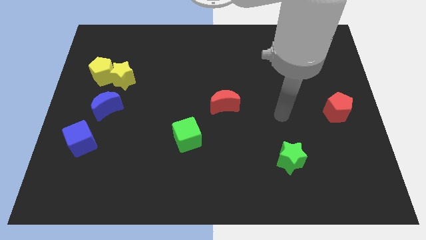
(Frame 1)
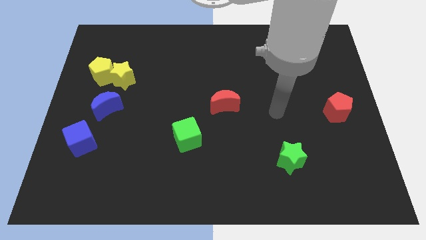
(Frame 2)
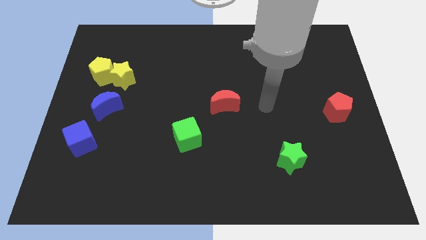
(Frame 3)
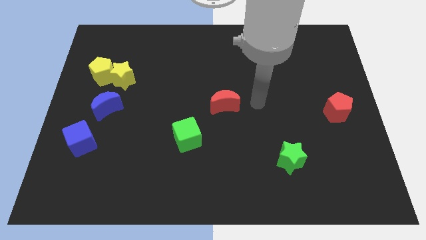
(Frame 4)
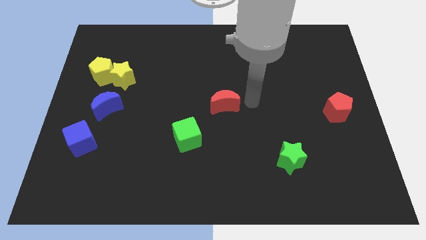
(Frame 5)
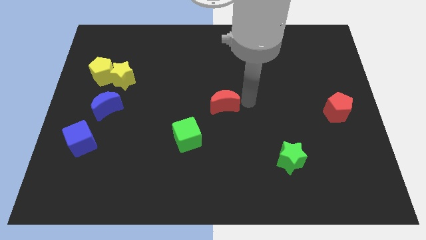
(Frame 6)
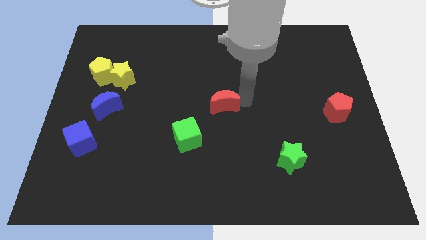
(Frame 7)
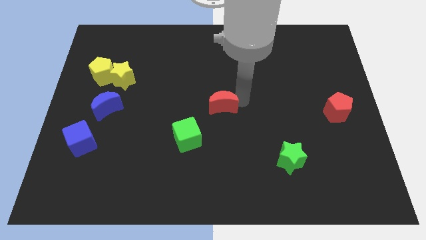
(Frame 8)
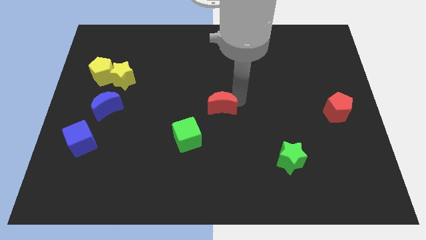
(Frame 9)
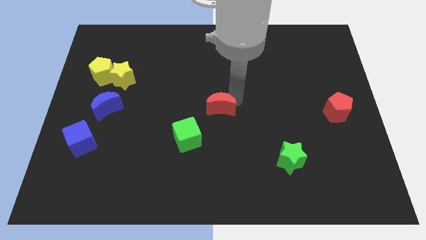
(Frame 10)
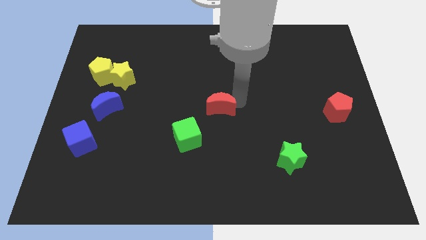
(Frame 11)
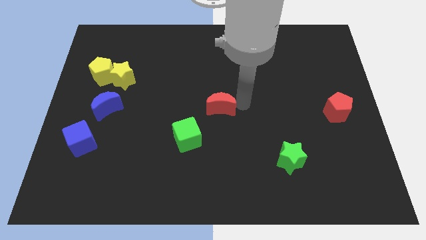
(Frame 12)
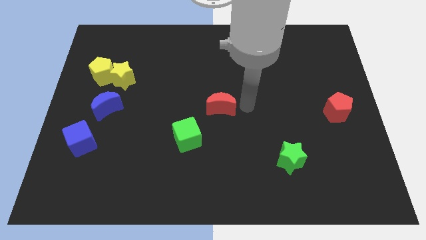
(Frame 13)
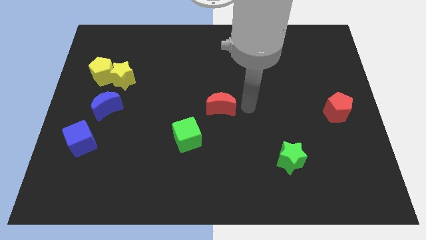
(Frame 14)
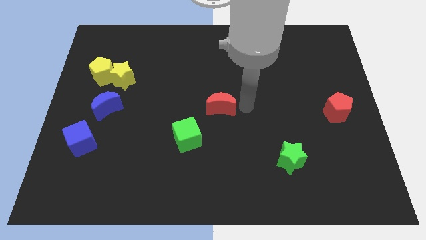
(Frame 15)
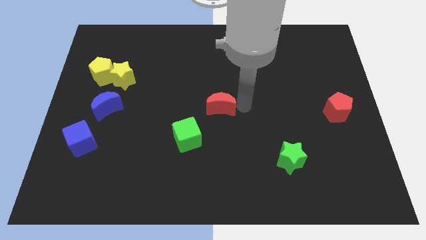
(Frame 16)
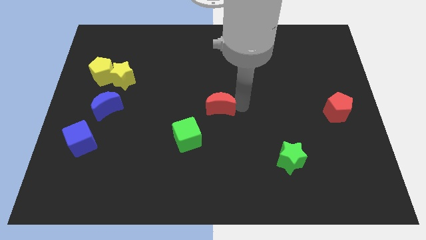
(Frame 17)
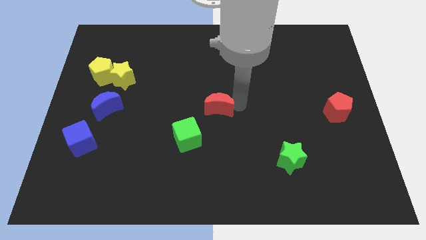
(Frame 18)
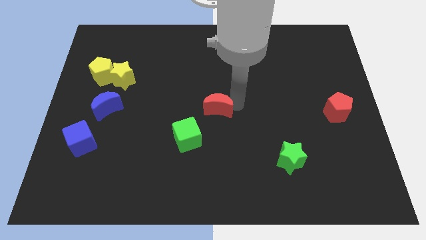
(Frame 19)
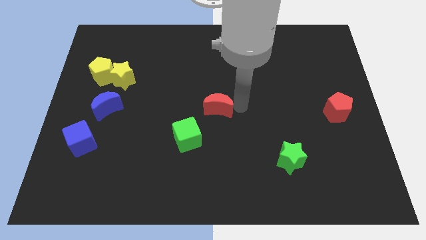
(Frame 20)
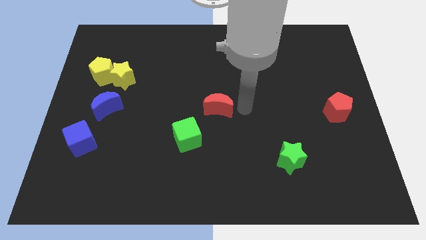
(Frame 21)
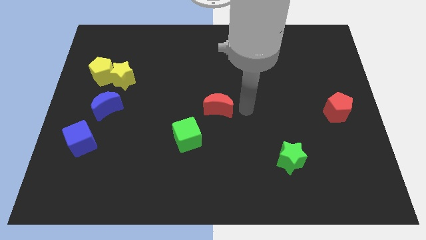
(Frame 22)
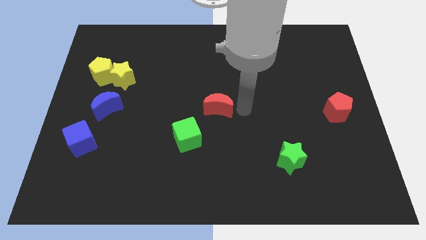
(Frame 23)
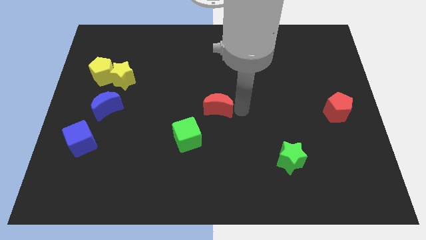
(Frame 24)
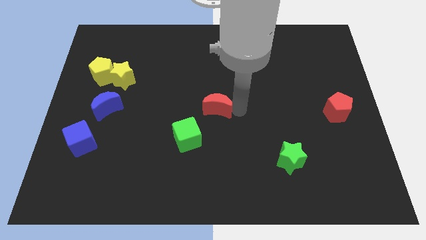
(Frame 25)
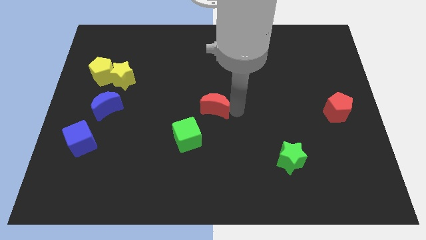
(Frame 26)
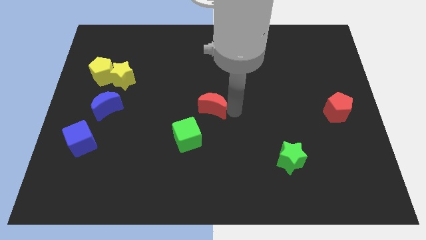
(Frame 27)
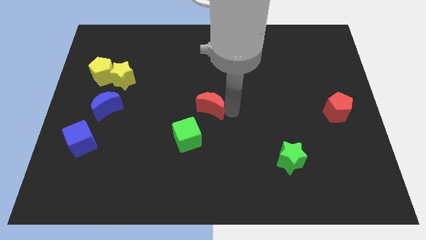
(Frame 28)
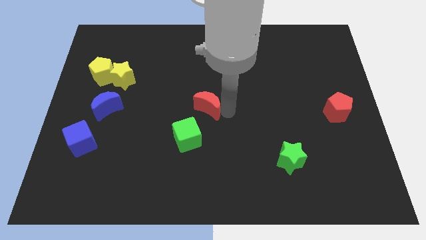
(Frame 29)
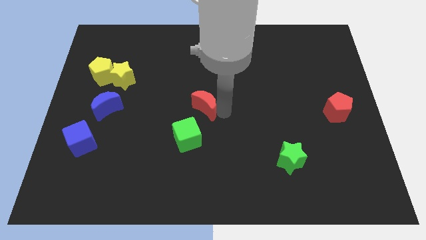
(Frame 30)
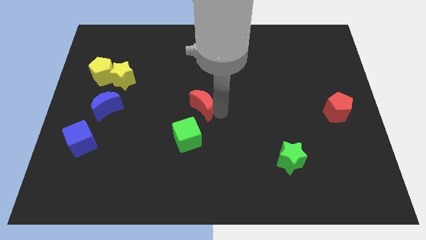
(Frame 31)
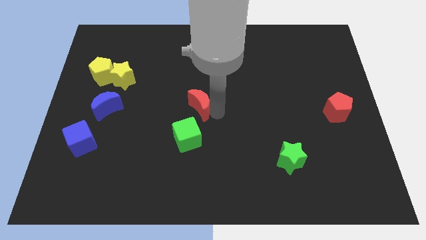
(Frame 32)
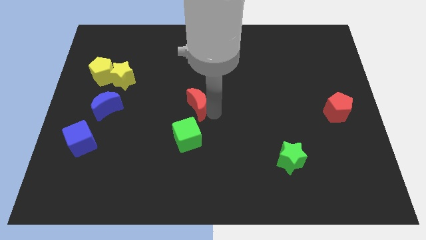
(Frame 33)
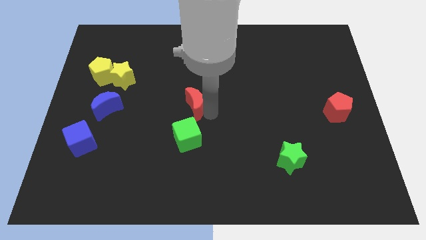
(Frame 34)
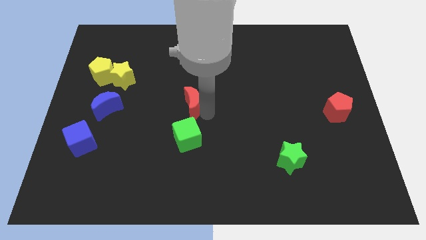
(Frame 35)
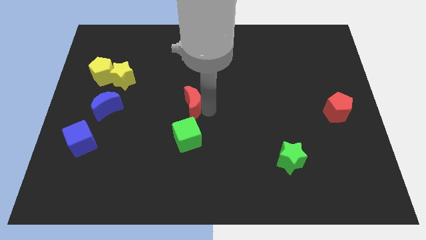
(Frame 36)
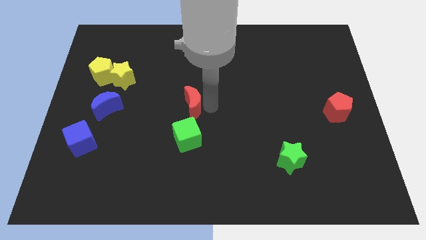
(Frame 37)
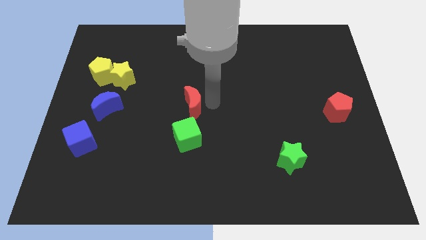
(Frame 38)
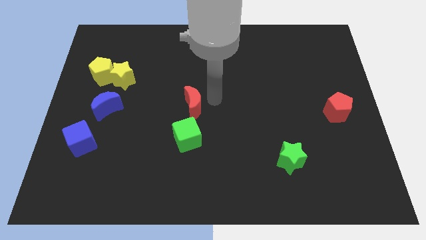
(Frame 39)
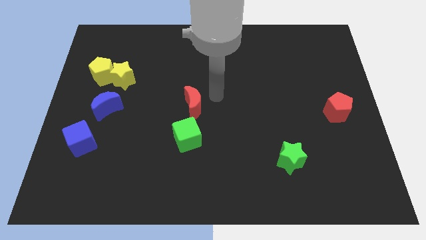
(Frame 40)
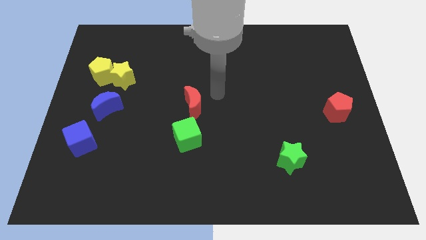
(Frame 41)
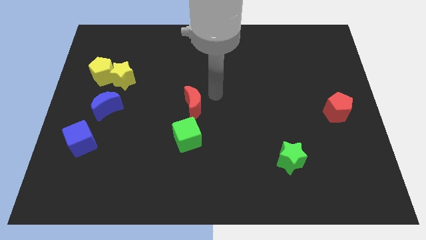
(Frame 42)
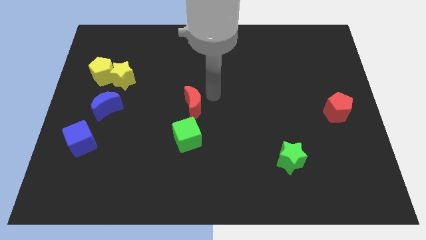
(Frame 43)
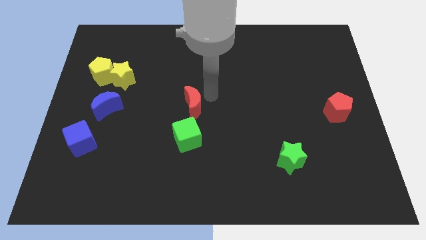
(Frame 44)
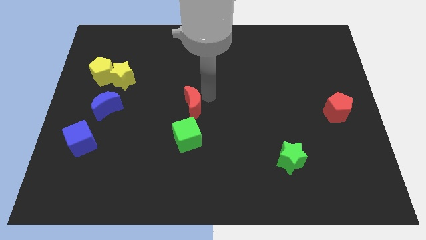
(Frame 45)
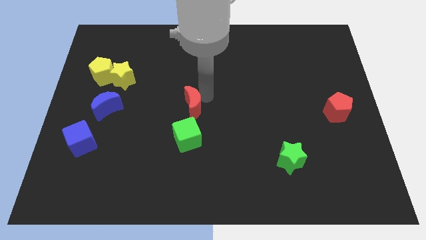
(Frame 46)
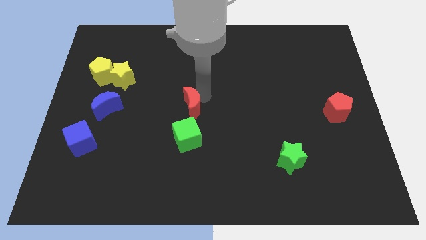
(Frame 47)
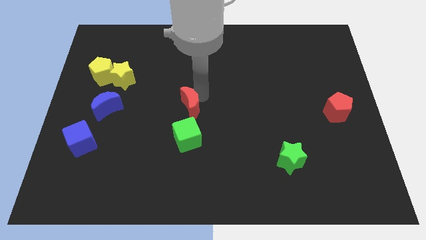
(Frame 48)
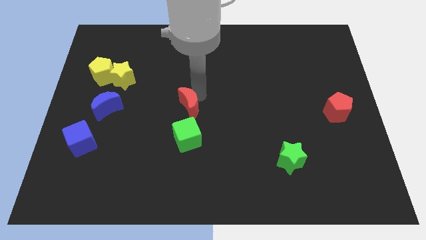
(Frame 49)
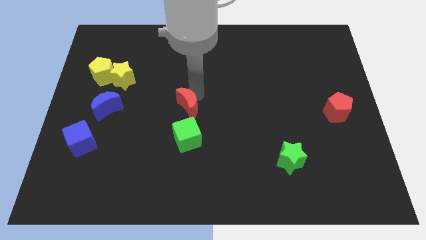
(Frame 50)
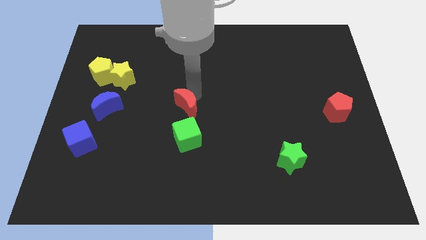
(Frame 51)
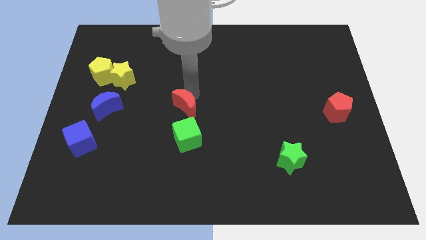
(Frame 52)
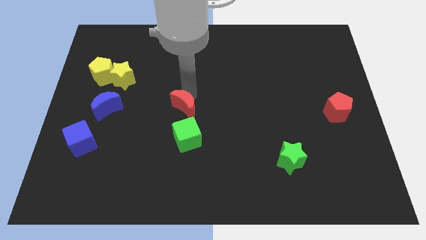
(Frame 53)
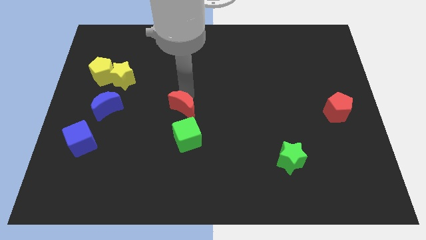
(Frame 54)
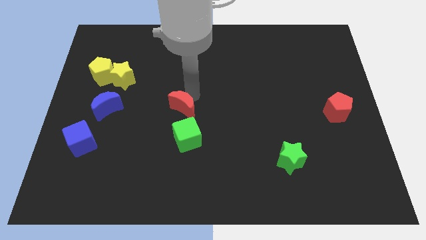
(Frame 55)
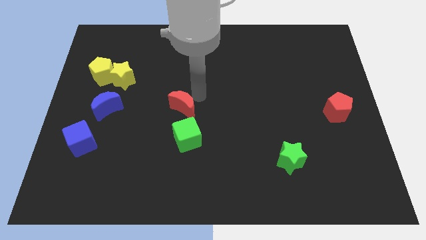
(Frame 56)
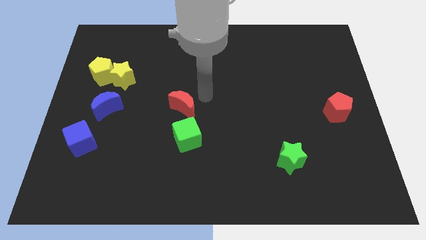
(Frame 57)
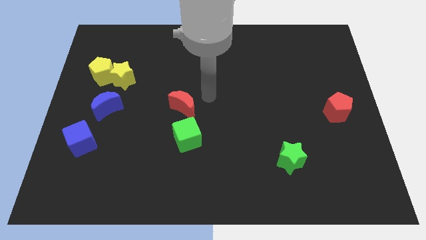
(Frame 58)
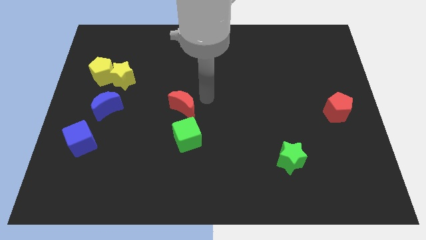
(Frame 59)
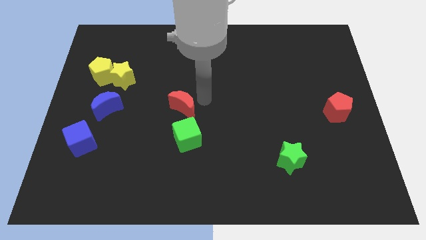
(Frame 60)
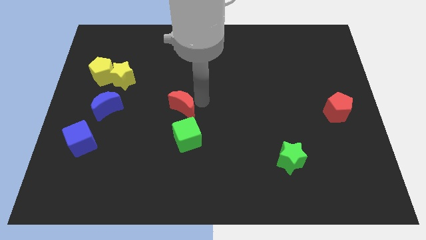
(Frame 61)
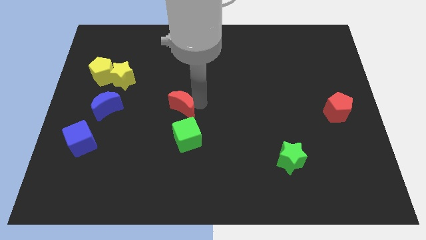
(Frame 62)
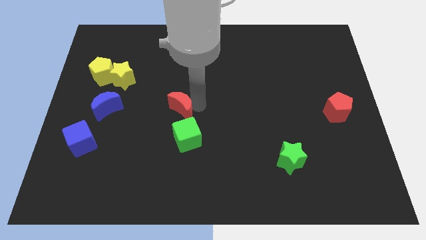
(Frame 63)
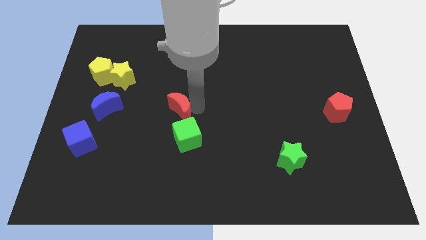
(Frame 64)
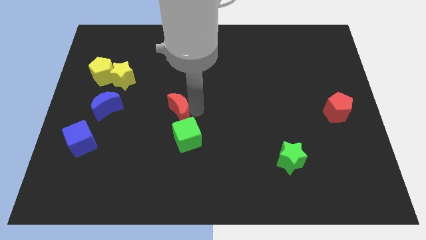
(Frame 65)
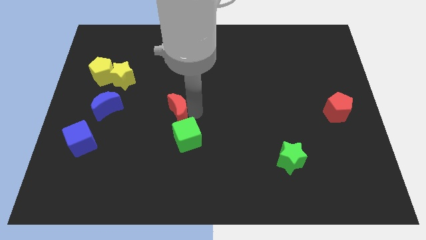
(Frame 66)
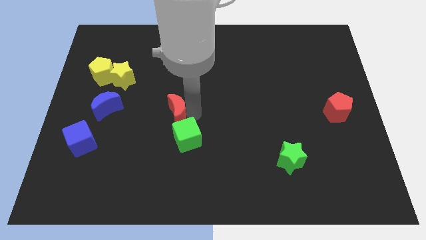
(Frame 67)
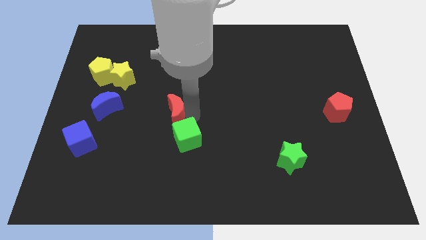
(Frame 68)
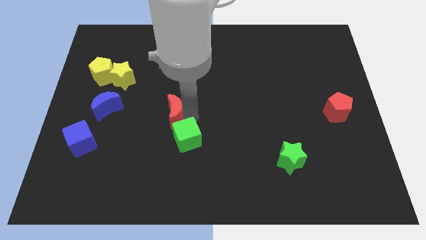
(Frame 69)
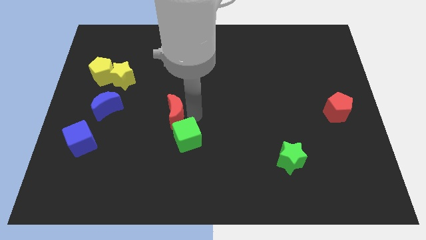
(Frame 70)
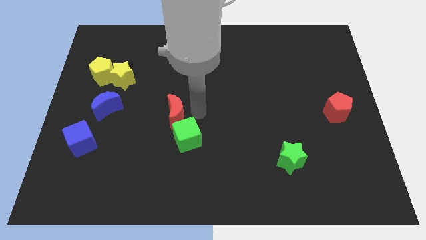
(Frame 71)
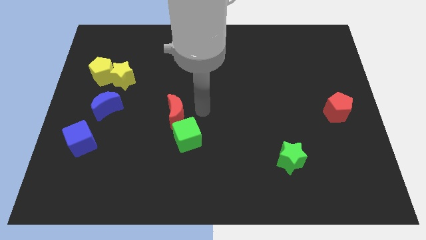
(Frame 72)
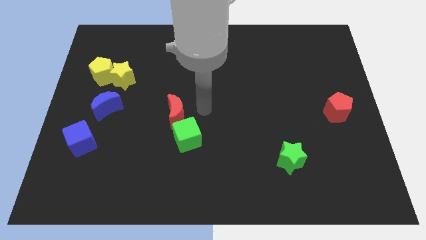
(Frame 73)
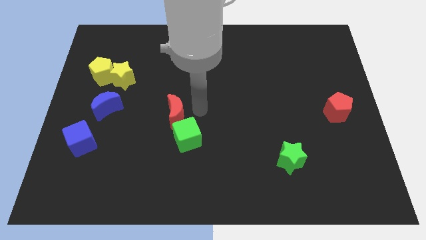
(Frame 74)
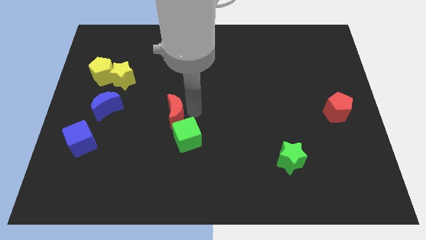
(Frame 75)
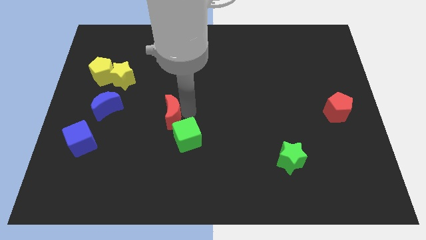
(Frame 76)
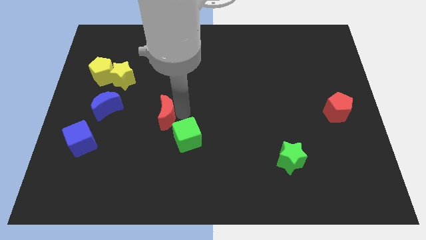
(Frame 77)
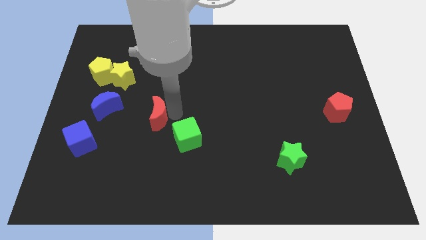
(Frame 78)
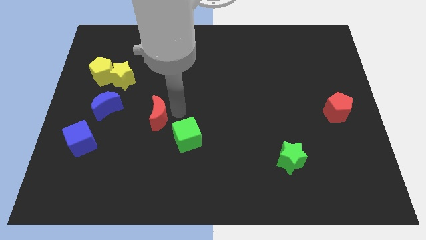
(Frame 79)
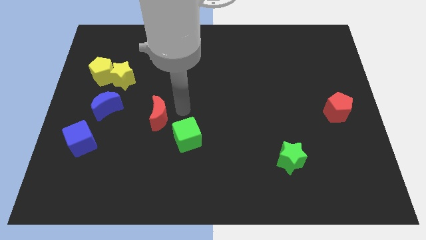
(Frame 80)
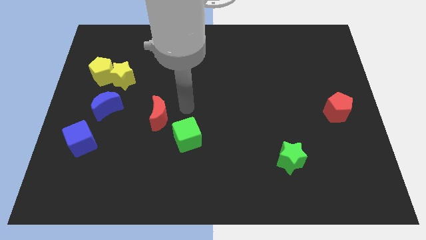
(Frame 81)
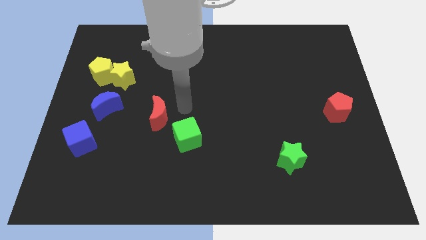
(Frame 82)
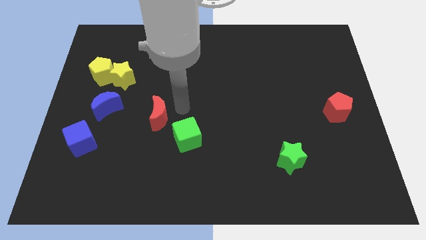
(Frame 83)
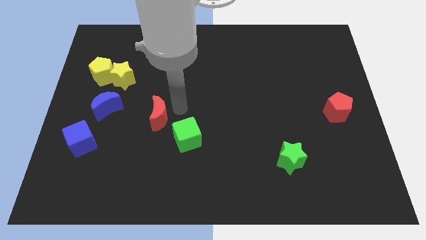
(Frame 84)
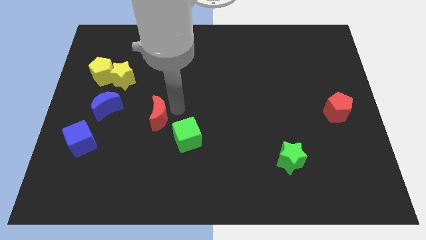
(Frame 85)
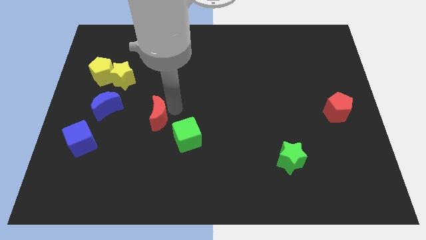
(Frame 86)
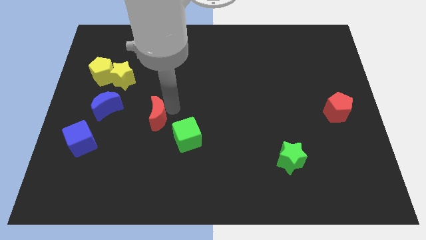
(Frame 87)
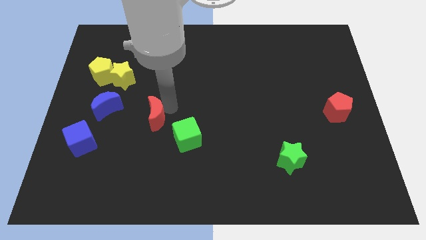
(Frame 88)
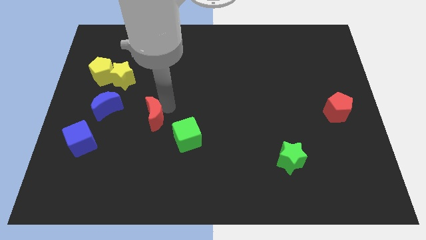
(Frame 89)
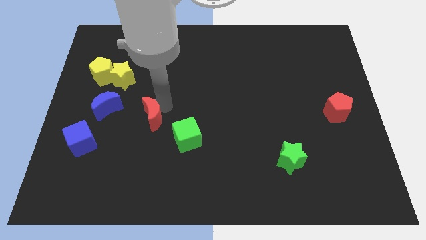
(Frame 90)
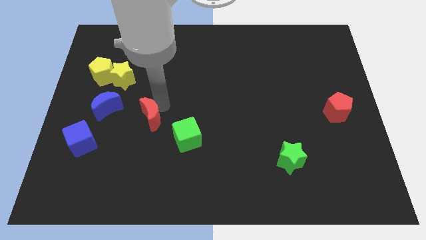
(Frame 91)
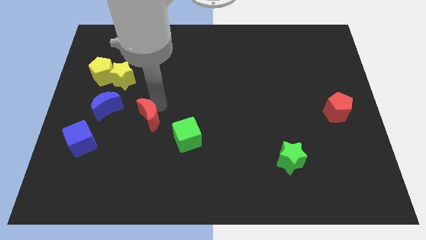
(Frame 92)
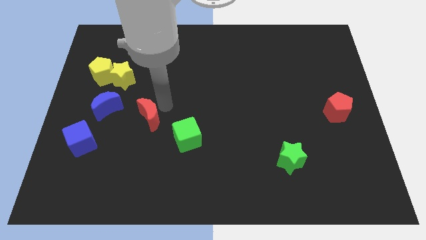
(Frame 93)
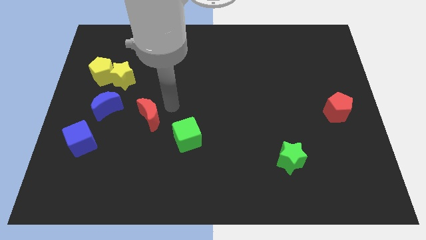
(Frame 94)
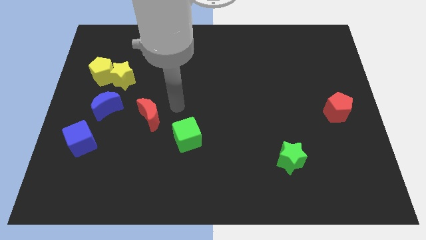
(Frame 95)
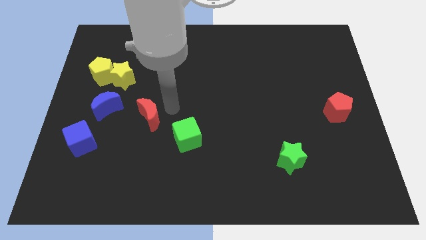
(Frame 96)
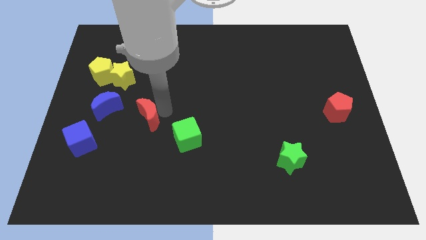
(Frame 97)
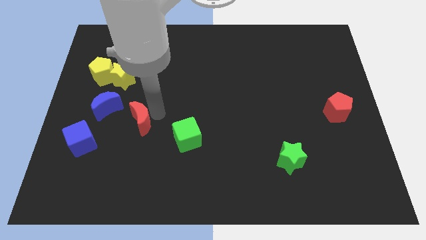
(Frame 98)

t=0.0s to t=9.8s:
put the red moon to the bottom right side of the blue moon
